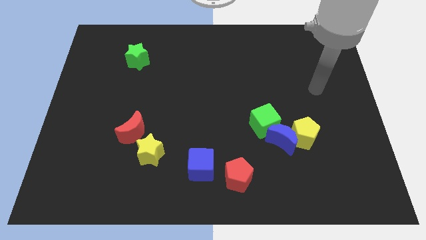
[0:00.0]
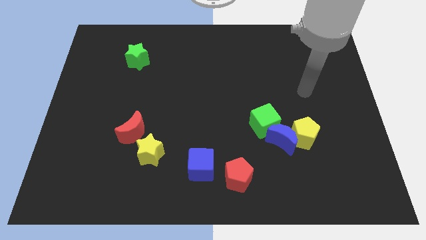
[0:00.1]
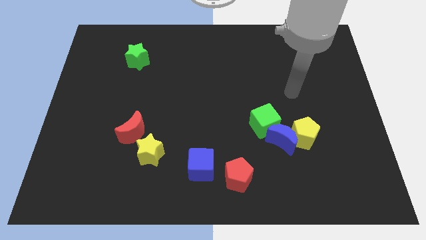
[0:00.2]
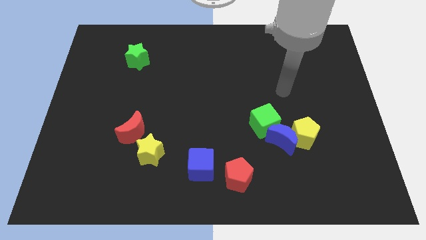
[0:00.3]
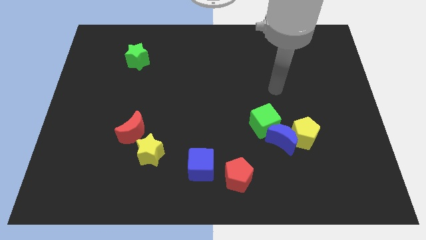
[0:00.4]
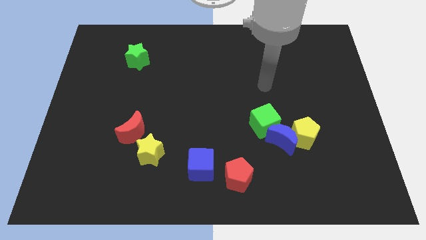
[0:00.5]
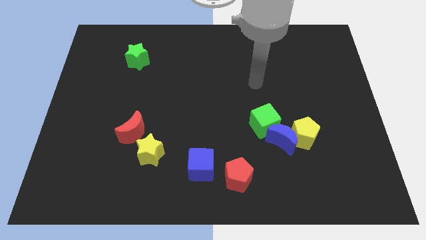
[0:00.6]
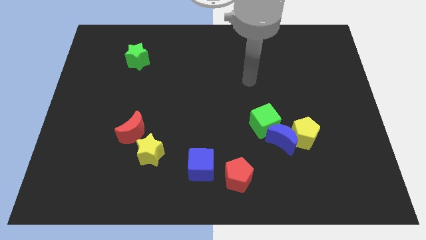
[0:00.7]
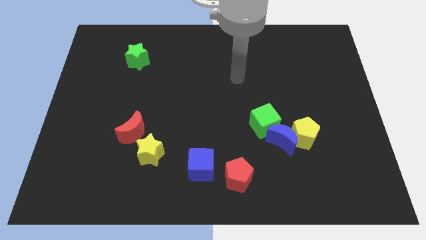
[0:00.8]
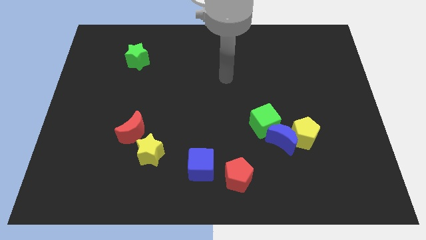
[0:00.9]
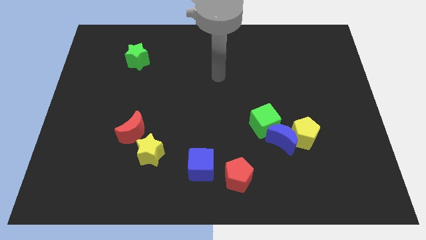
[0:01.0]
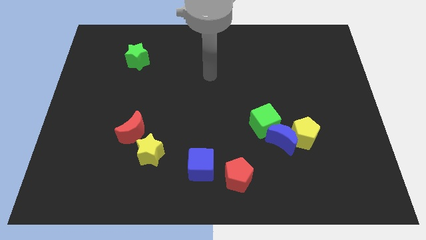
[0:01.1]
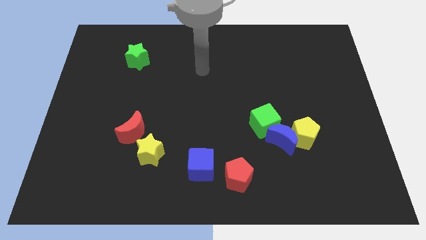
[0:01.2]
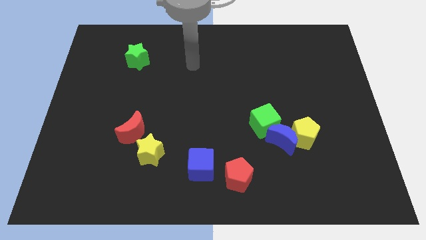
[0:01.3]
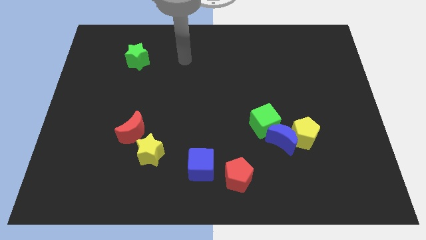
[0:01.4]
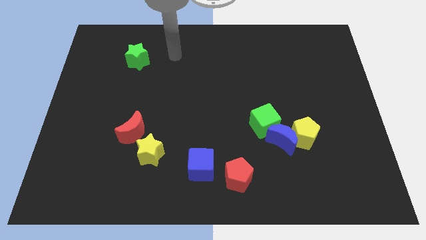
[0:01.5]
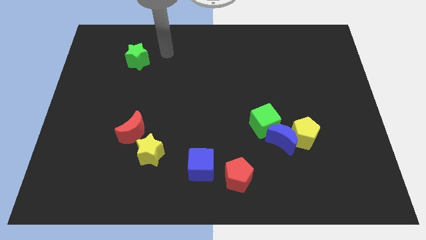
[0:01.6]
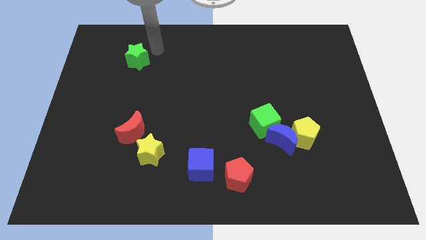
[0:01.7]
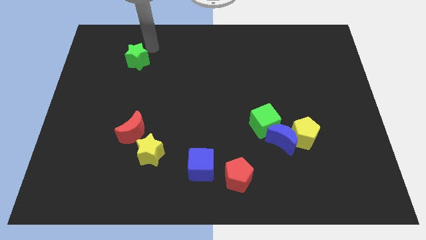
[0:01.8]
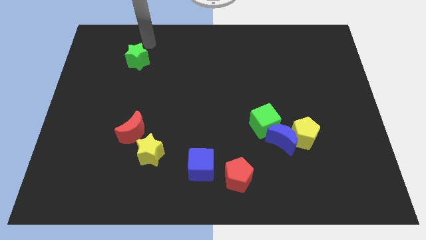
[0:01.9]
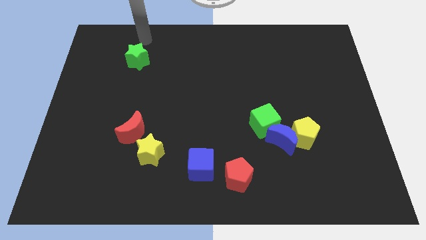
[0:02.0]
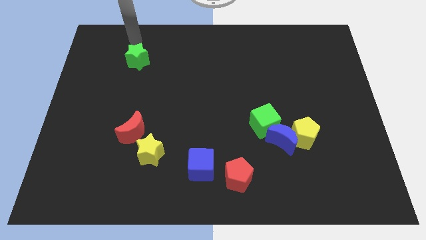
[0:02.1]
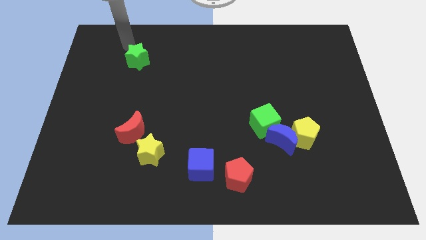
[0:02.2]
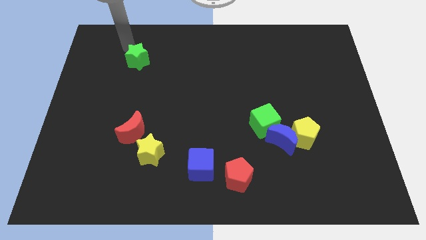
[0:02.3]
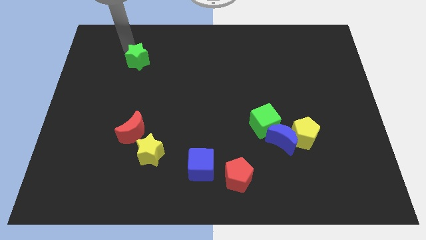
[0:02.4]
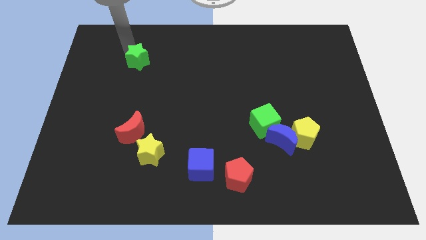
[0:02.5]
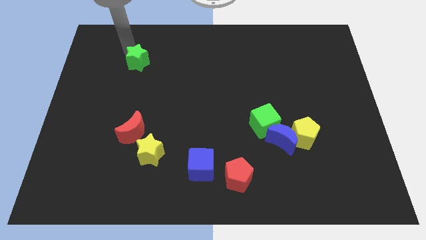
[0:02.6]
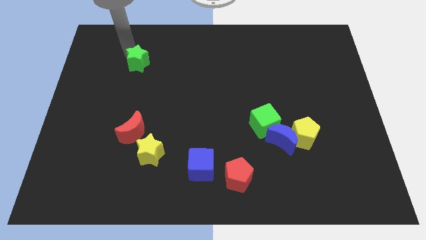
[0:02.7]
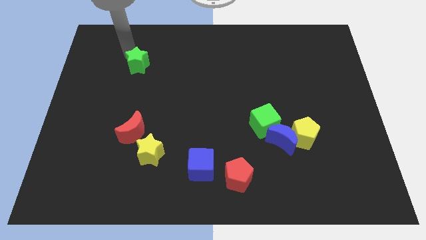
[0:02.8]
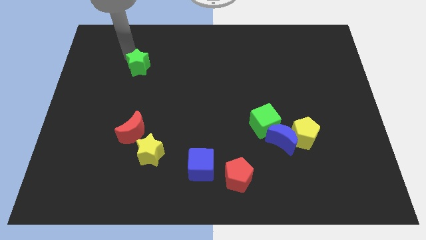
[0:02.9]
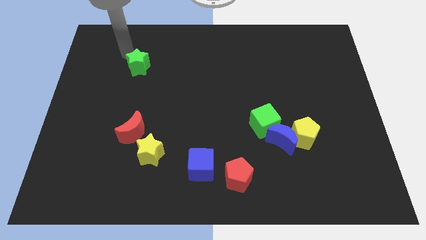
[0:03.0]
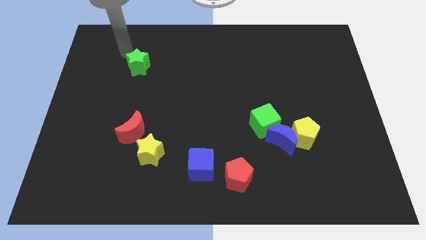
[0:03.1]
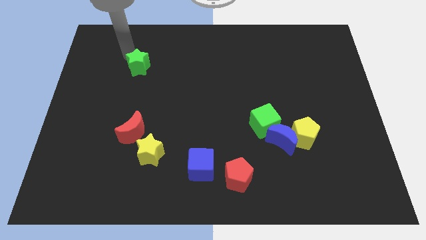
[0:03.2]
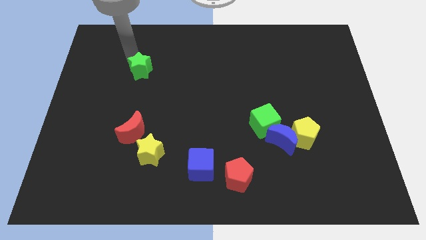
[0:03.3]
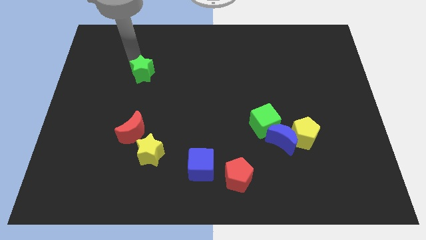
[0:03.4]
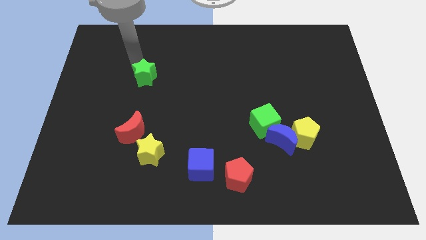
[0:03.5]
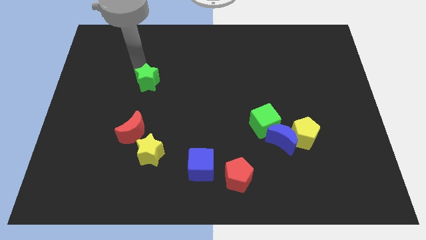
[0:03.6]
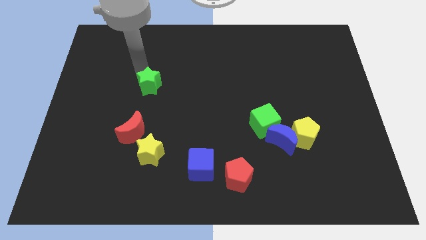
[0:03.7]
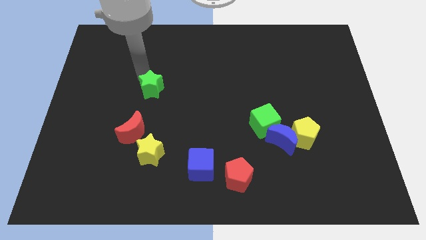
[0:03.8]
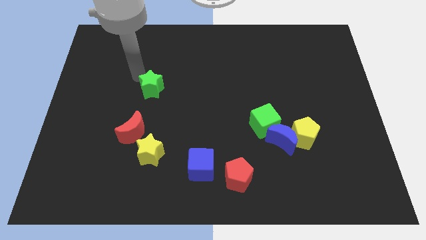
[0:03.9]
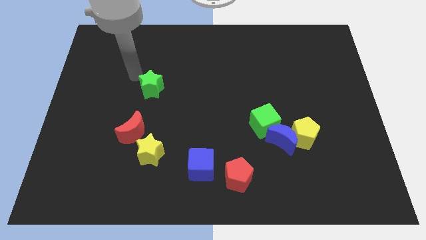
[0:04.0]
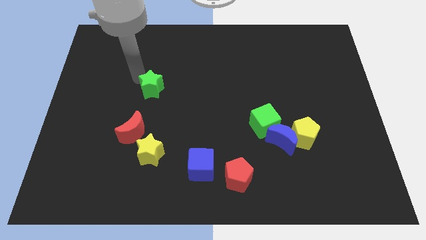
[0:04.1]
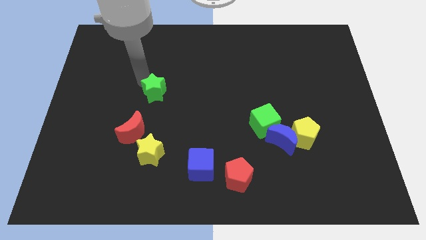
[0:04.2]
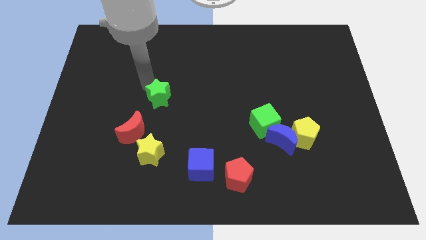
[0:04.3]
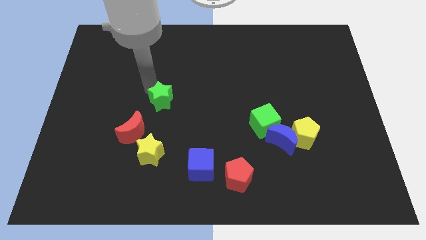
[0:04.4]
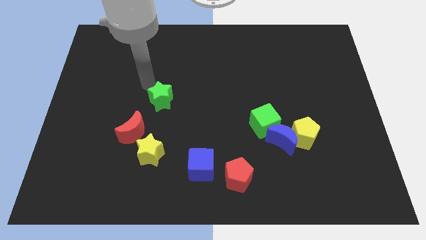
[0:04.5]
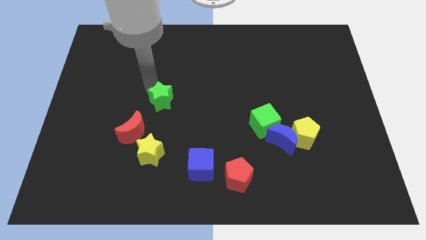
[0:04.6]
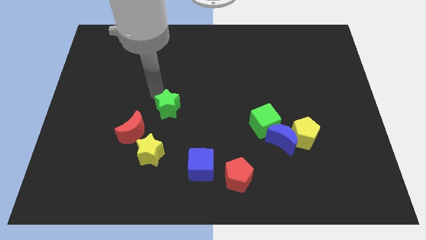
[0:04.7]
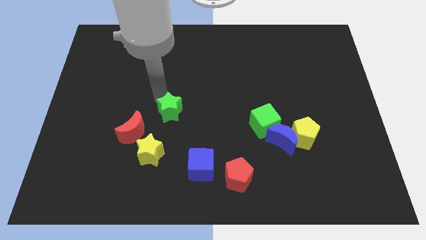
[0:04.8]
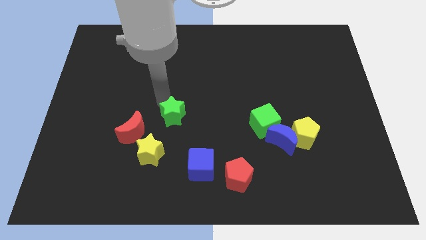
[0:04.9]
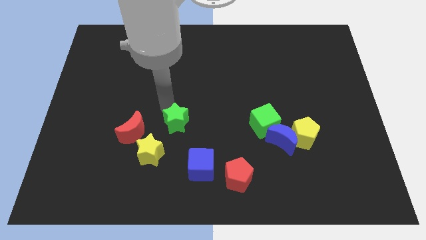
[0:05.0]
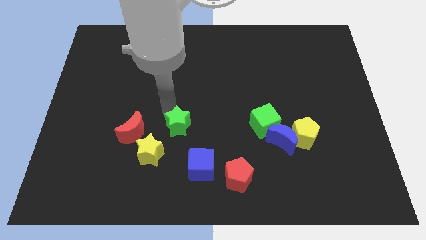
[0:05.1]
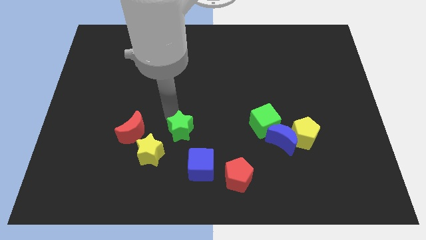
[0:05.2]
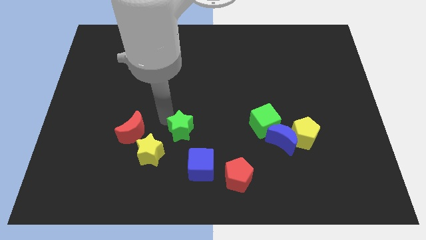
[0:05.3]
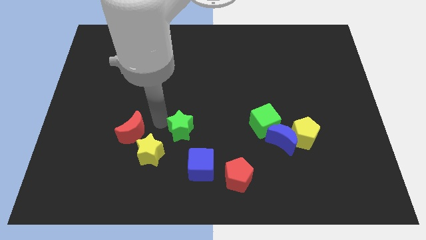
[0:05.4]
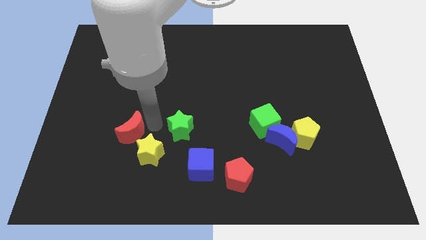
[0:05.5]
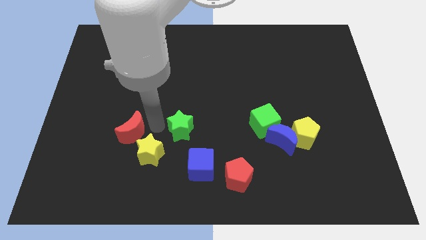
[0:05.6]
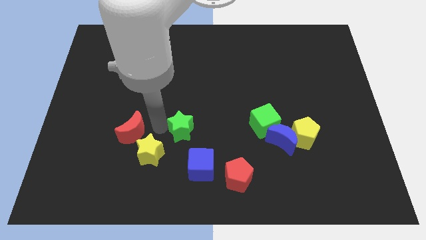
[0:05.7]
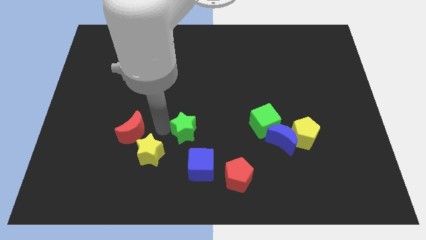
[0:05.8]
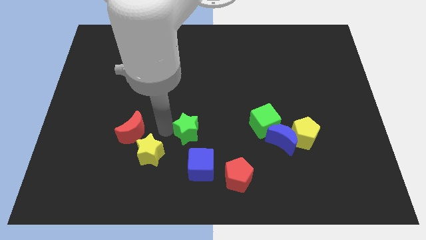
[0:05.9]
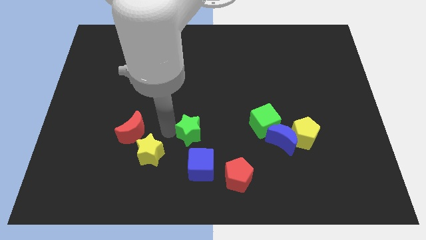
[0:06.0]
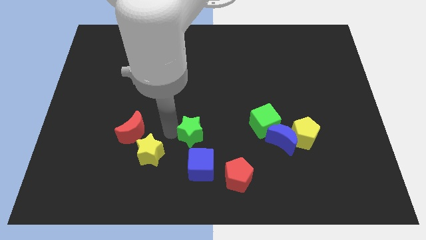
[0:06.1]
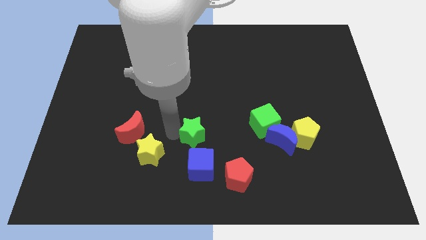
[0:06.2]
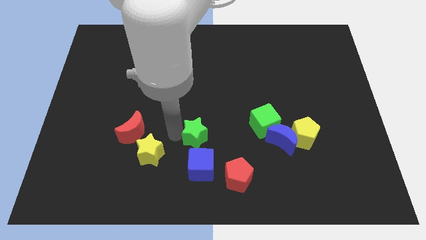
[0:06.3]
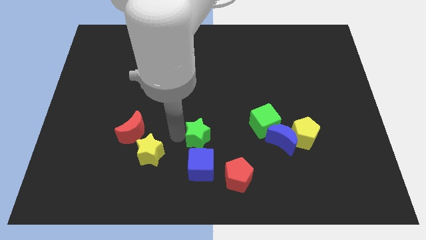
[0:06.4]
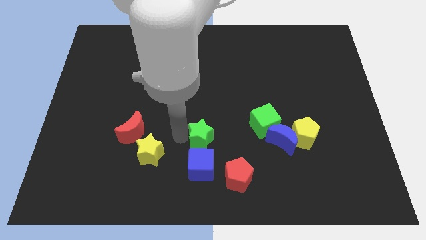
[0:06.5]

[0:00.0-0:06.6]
slide the green star diagonally up and to the right of the blue cube

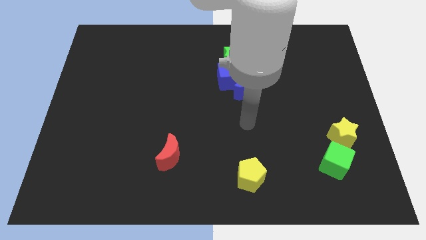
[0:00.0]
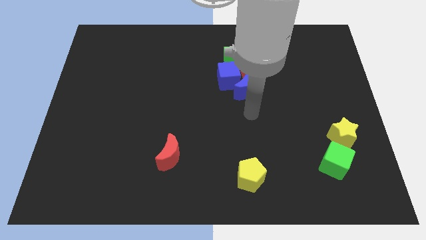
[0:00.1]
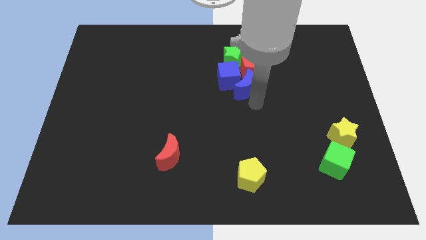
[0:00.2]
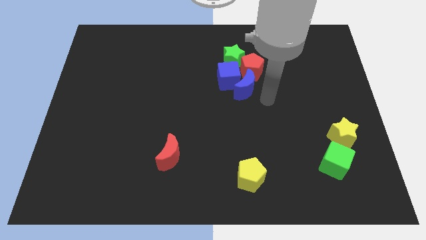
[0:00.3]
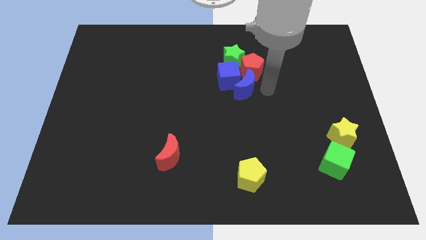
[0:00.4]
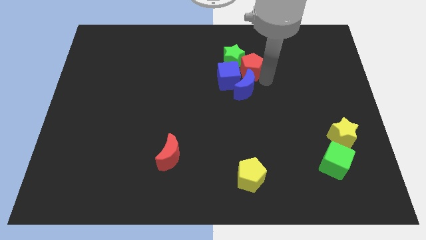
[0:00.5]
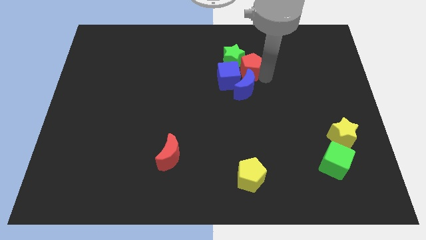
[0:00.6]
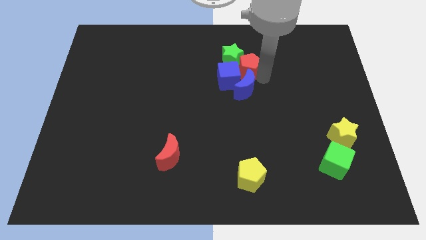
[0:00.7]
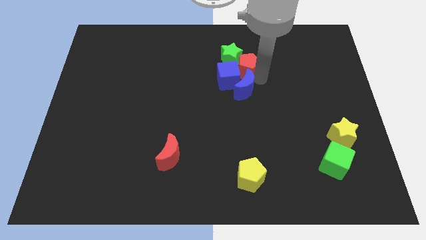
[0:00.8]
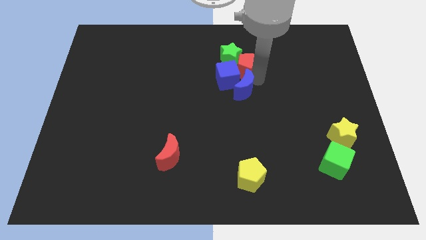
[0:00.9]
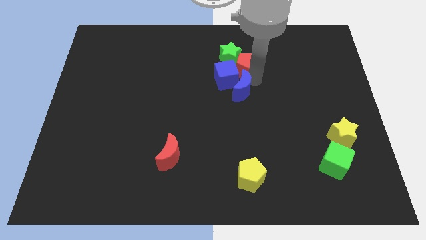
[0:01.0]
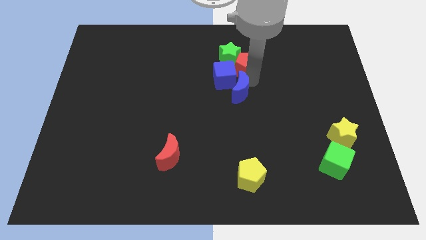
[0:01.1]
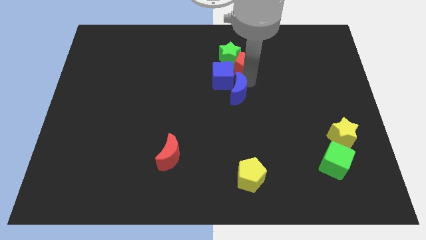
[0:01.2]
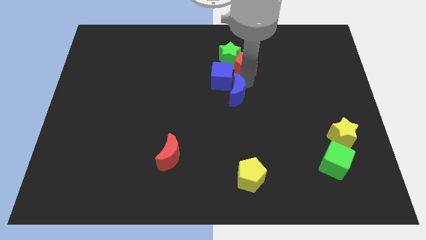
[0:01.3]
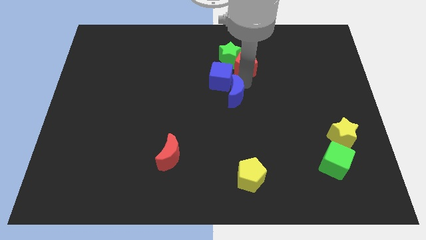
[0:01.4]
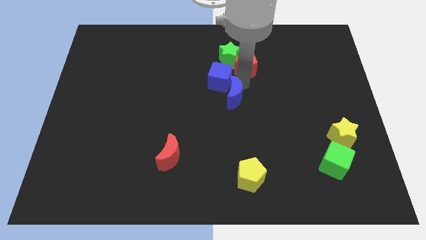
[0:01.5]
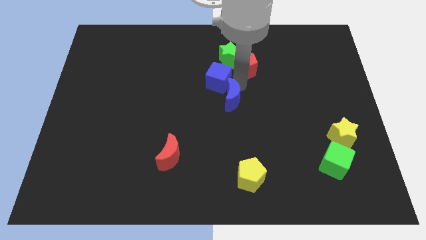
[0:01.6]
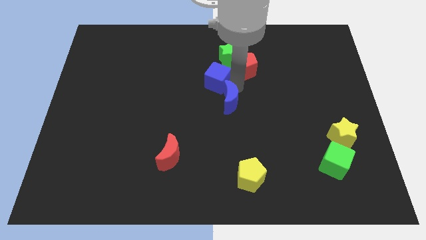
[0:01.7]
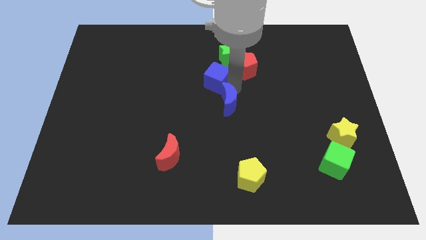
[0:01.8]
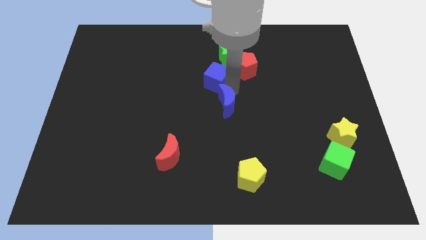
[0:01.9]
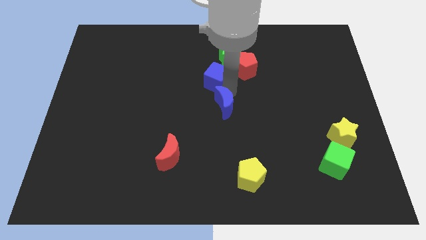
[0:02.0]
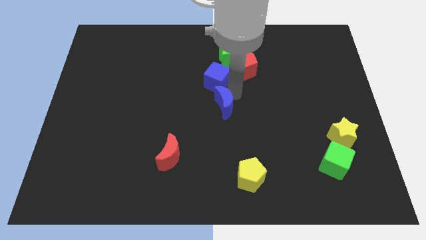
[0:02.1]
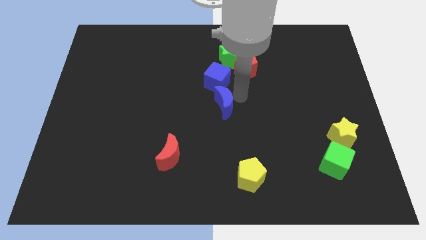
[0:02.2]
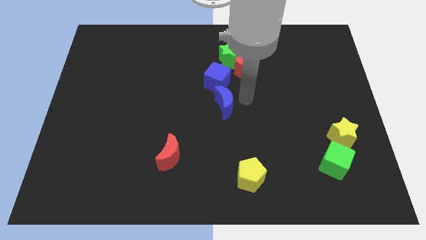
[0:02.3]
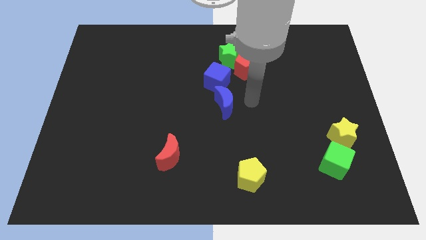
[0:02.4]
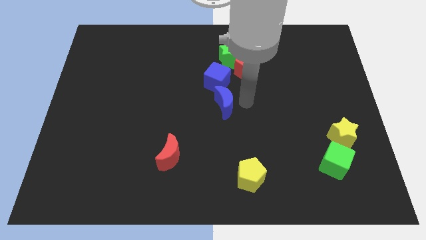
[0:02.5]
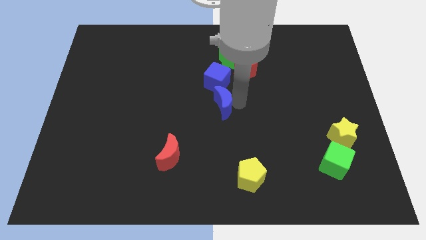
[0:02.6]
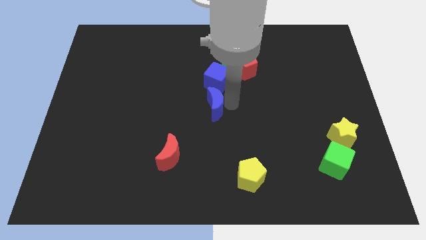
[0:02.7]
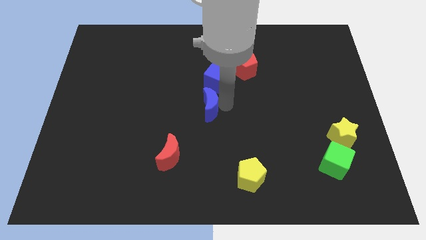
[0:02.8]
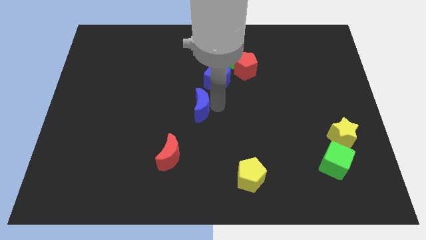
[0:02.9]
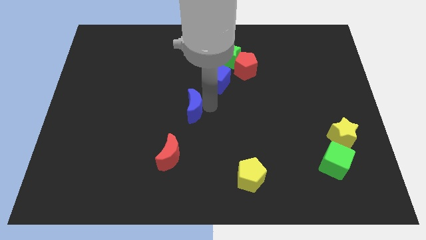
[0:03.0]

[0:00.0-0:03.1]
push the blue moon to the top of the red moon
